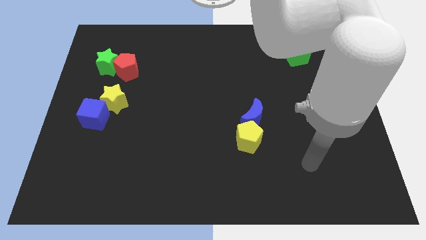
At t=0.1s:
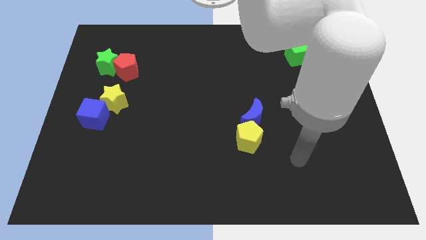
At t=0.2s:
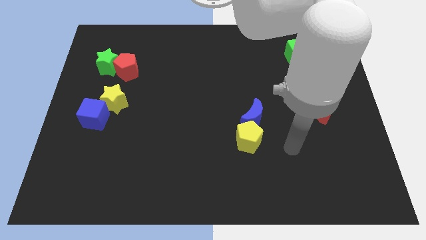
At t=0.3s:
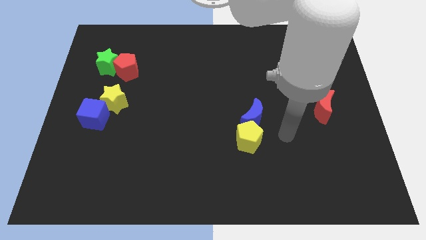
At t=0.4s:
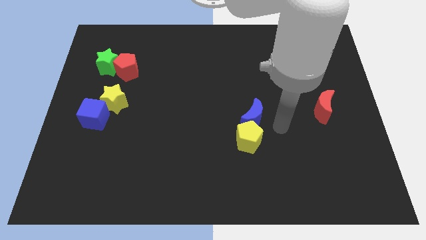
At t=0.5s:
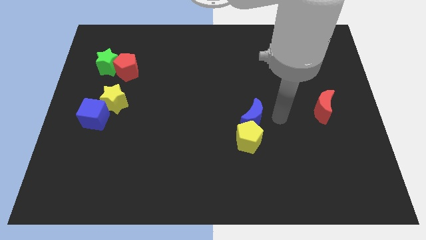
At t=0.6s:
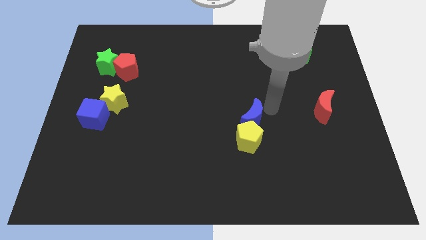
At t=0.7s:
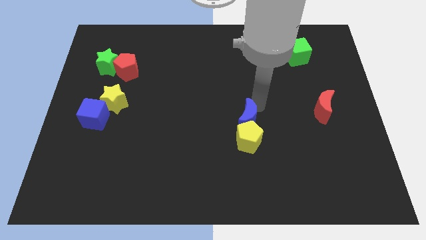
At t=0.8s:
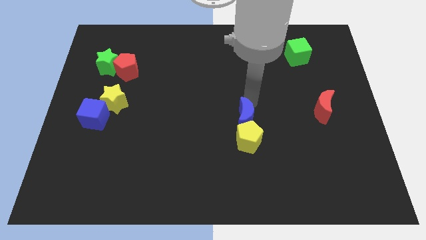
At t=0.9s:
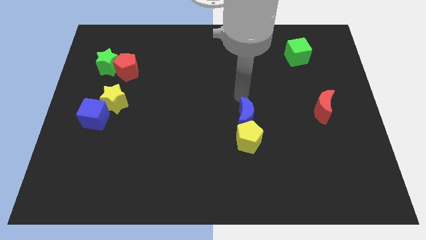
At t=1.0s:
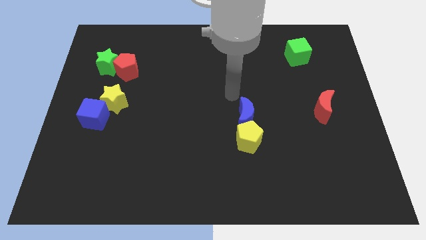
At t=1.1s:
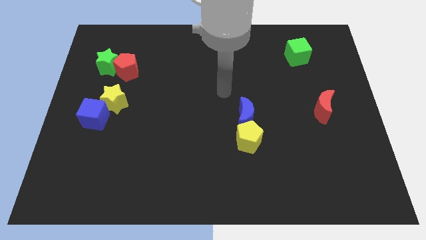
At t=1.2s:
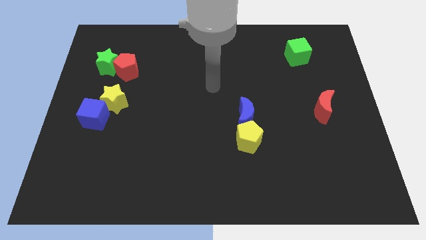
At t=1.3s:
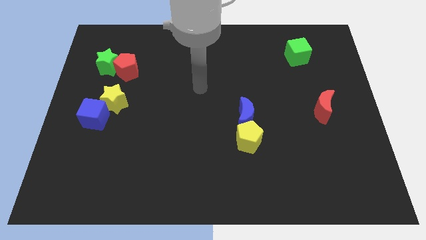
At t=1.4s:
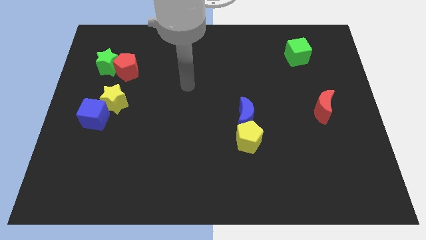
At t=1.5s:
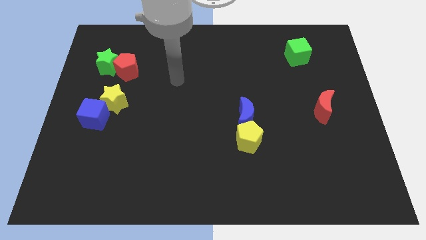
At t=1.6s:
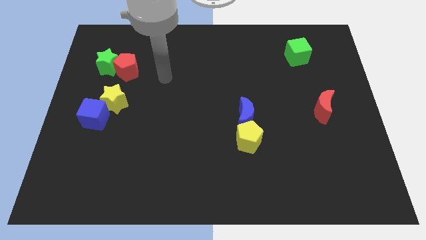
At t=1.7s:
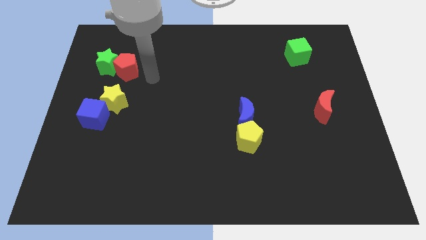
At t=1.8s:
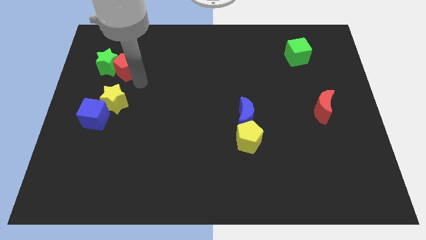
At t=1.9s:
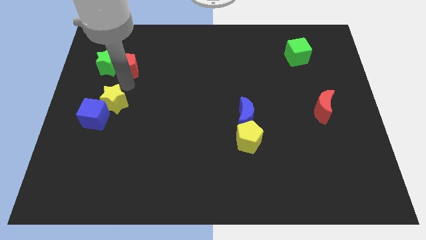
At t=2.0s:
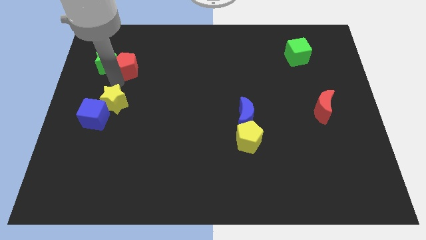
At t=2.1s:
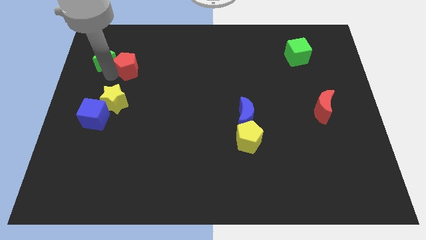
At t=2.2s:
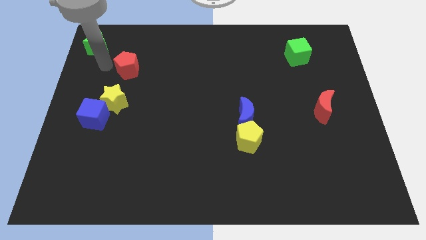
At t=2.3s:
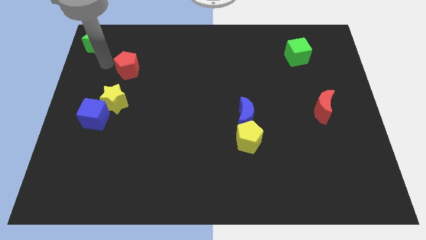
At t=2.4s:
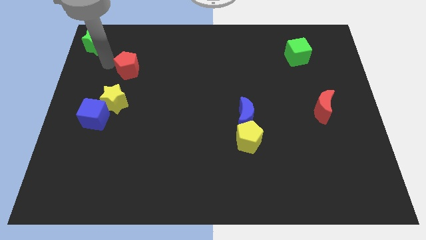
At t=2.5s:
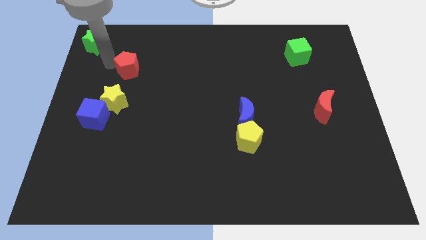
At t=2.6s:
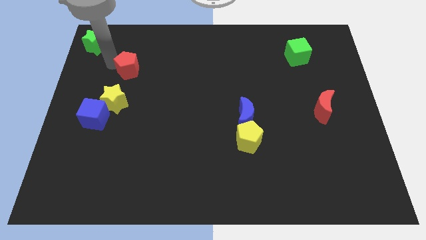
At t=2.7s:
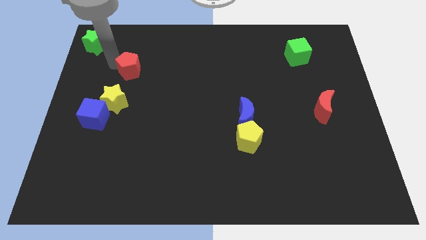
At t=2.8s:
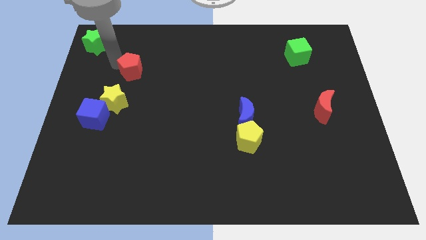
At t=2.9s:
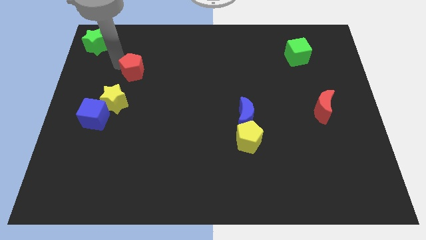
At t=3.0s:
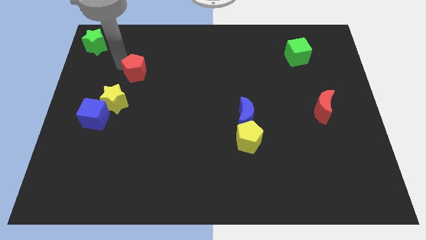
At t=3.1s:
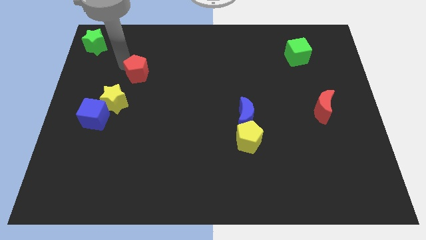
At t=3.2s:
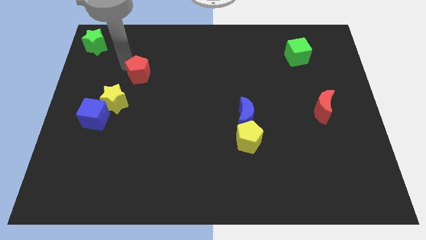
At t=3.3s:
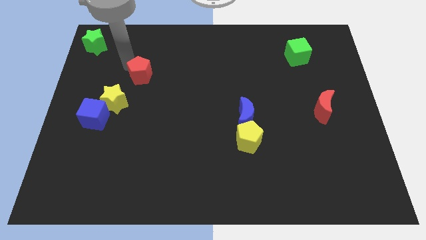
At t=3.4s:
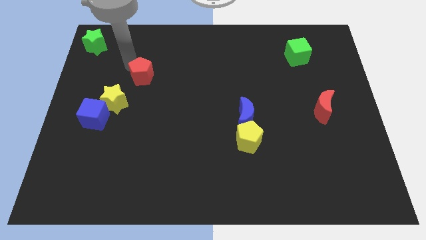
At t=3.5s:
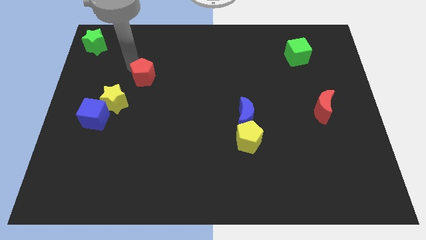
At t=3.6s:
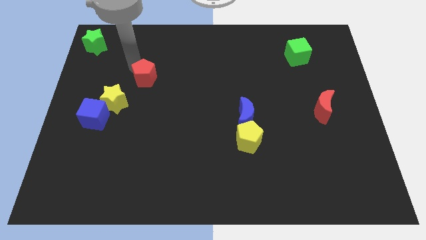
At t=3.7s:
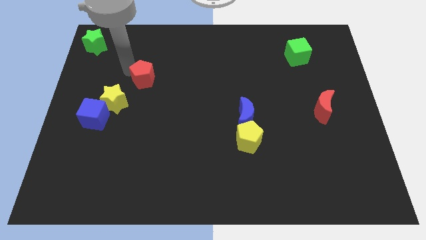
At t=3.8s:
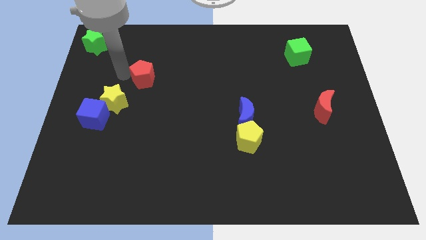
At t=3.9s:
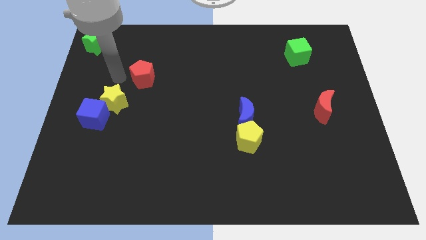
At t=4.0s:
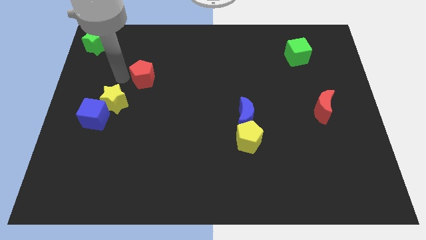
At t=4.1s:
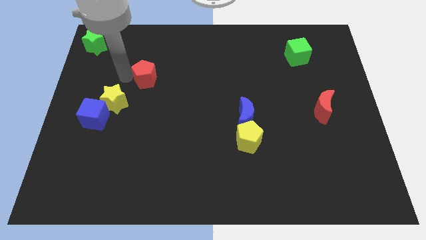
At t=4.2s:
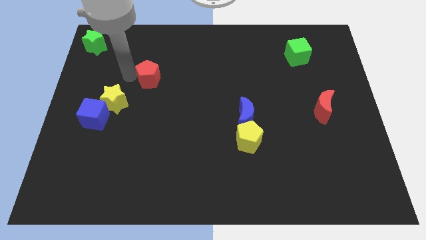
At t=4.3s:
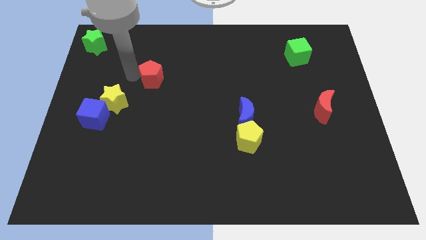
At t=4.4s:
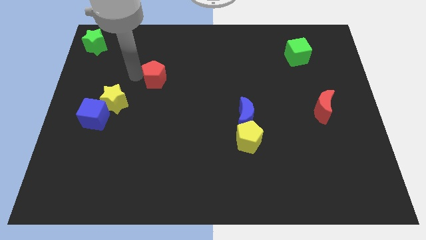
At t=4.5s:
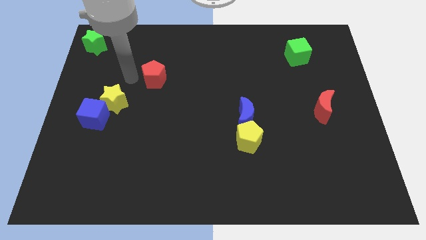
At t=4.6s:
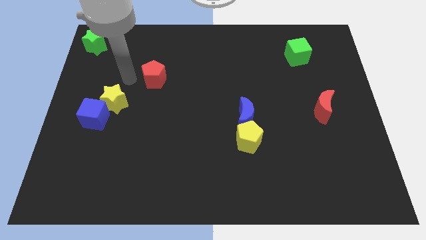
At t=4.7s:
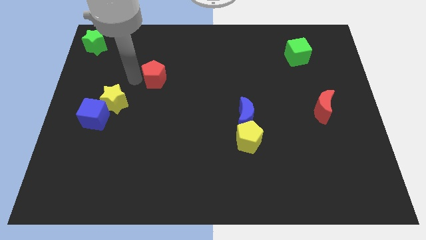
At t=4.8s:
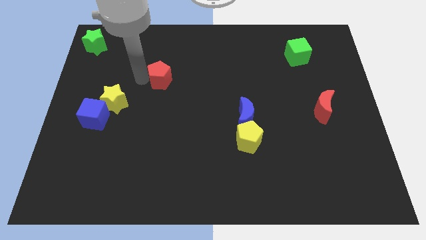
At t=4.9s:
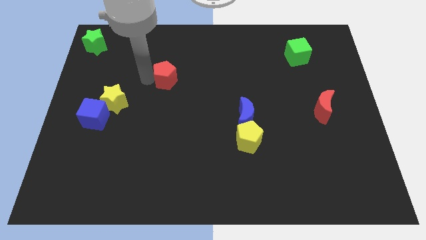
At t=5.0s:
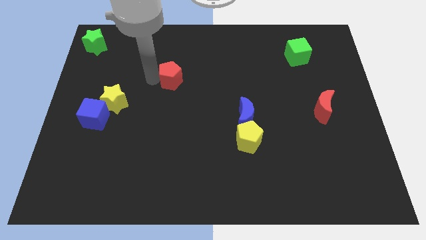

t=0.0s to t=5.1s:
put the red pentagon to the center

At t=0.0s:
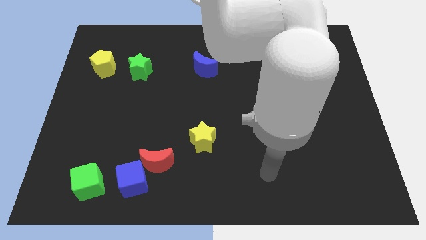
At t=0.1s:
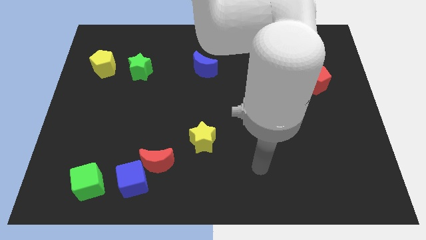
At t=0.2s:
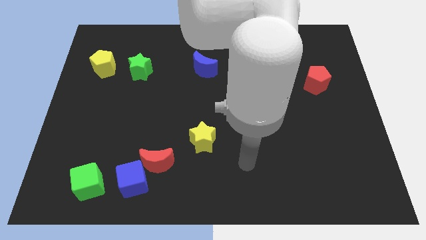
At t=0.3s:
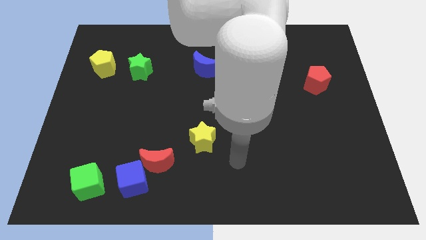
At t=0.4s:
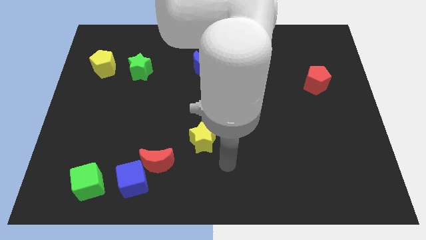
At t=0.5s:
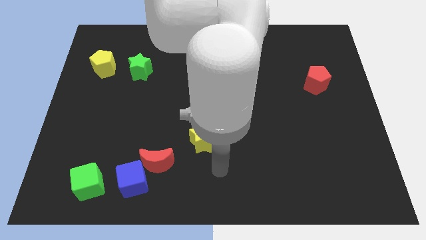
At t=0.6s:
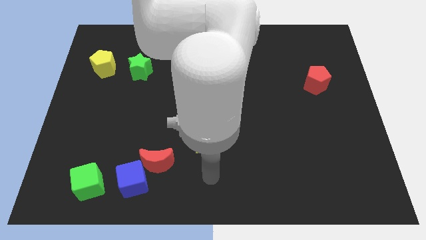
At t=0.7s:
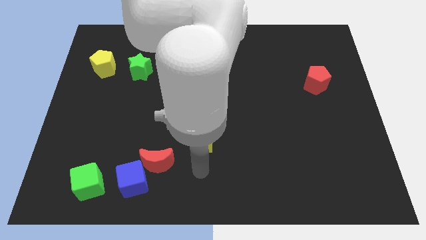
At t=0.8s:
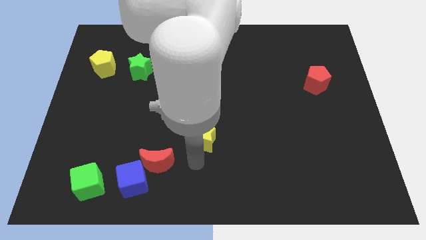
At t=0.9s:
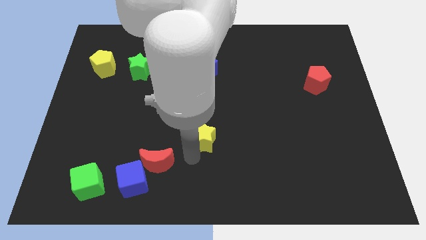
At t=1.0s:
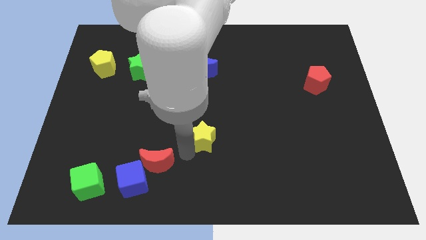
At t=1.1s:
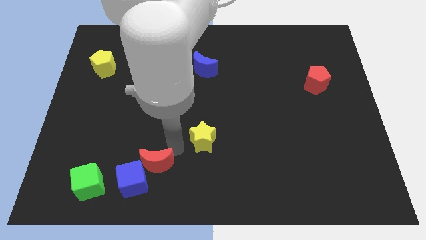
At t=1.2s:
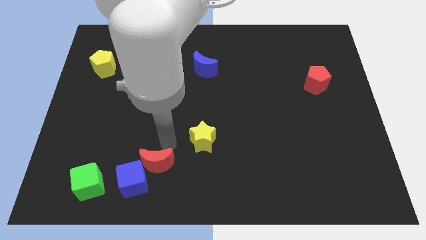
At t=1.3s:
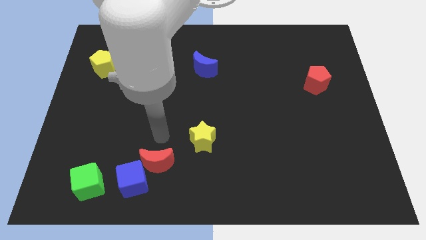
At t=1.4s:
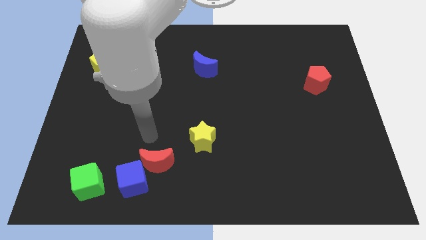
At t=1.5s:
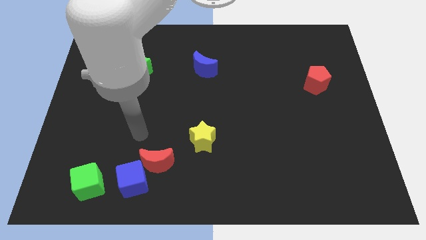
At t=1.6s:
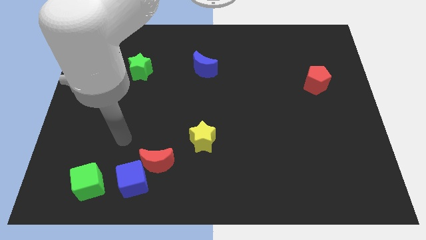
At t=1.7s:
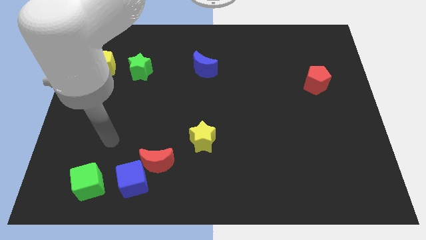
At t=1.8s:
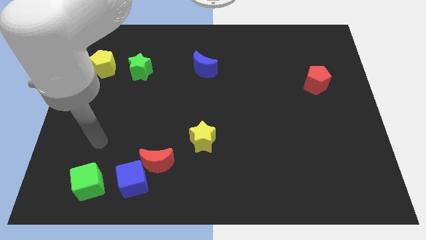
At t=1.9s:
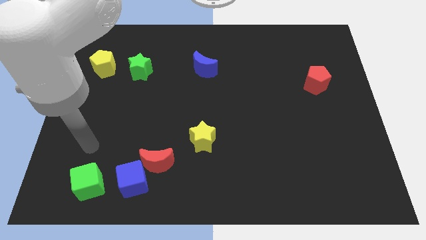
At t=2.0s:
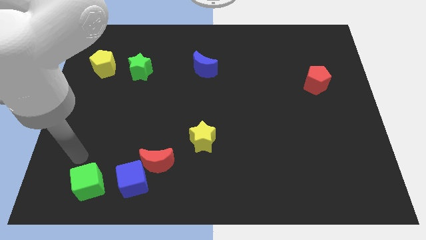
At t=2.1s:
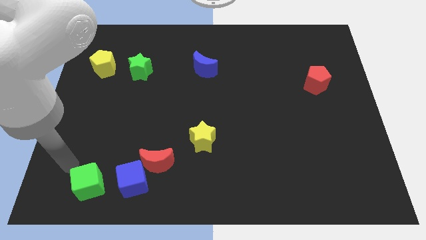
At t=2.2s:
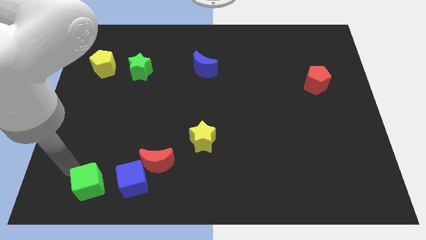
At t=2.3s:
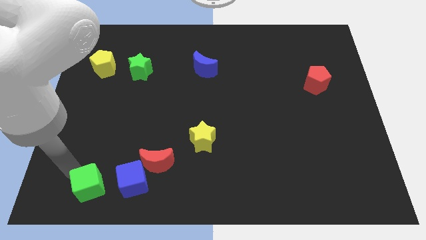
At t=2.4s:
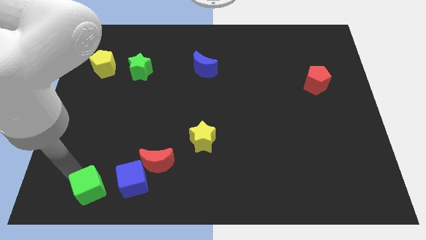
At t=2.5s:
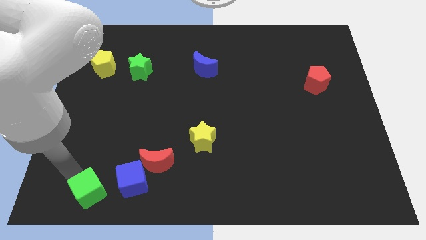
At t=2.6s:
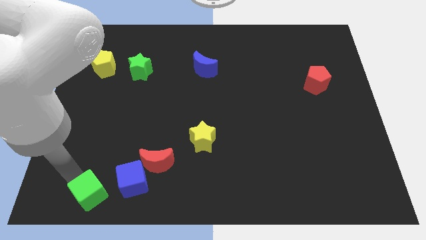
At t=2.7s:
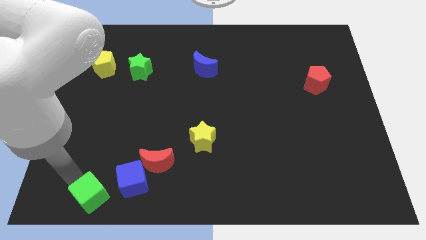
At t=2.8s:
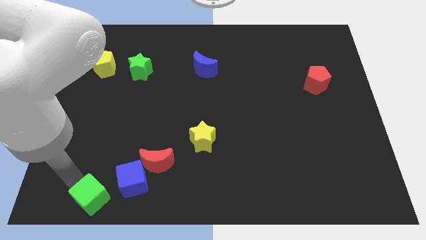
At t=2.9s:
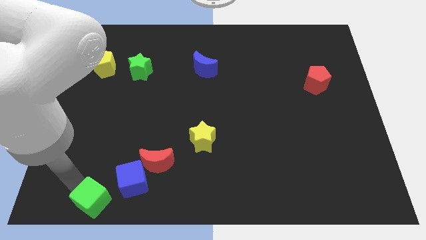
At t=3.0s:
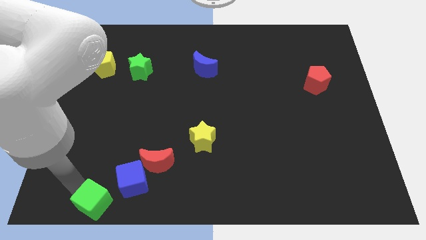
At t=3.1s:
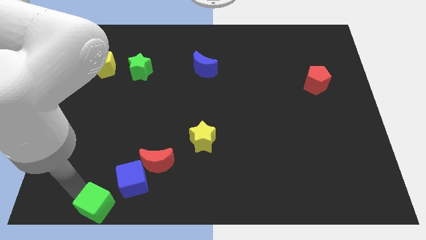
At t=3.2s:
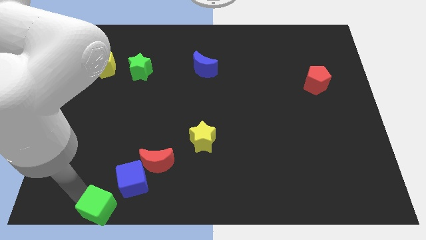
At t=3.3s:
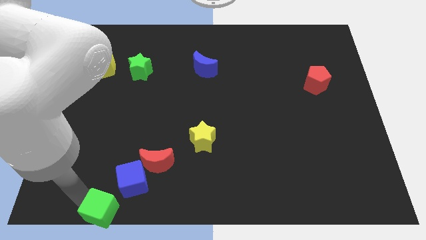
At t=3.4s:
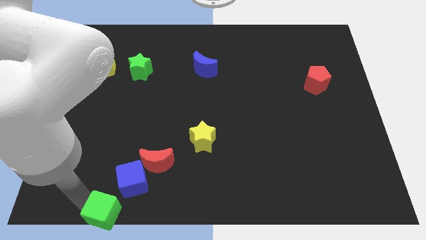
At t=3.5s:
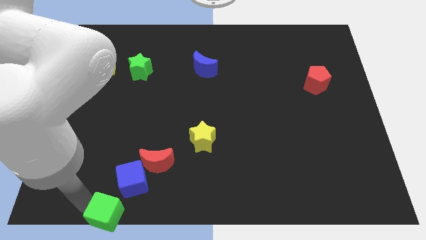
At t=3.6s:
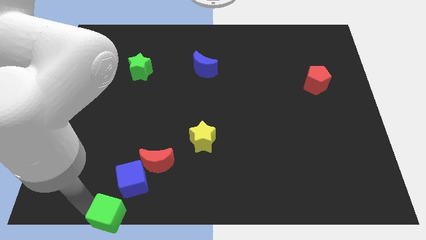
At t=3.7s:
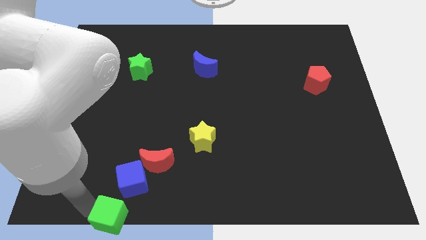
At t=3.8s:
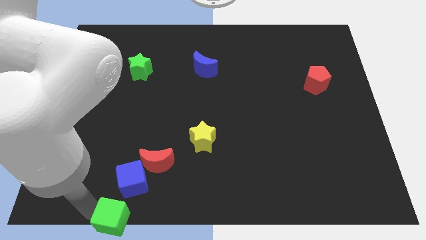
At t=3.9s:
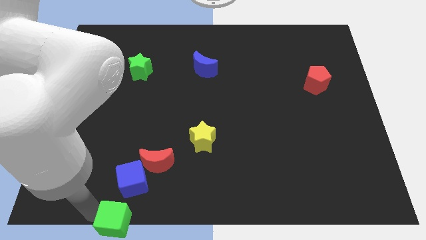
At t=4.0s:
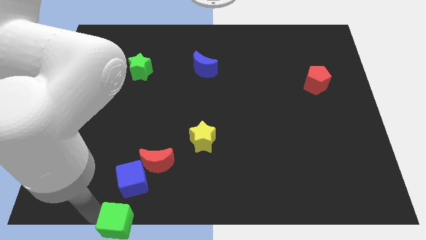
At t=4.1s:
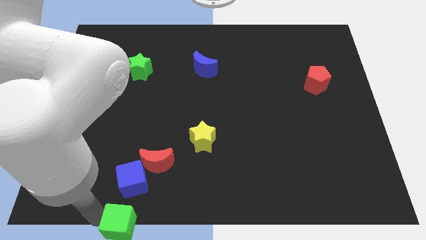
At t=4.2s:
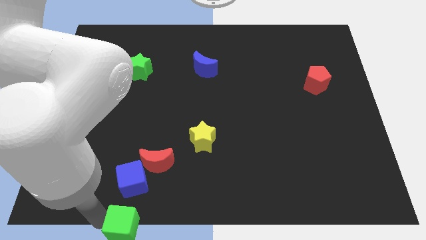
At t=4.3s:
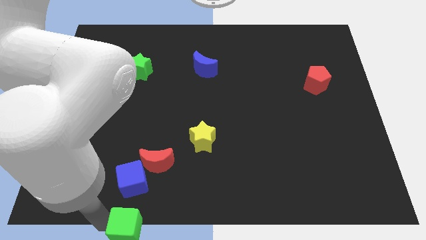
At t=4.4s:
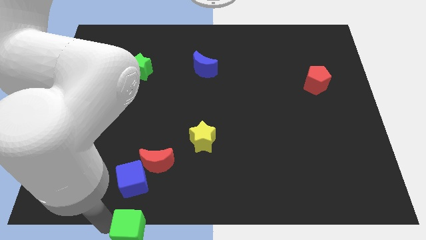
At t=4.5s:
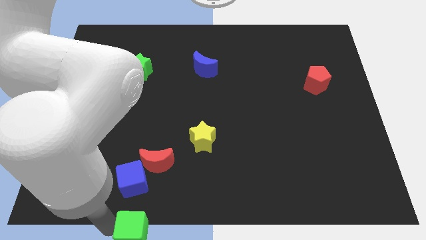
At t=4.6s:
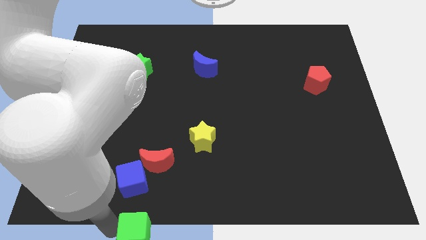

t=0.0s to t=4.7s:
move the green cube to the bottom
